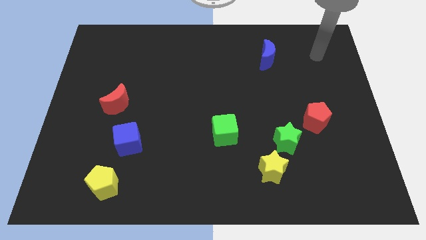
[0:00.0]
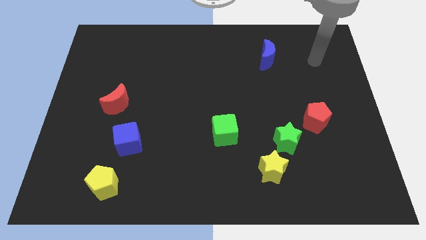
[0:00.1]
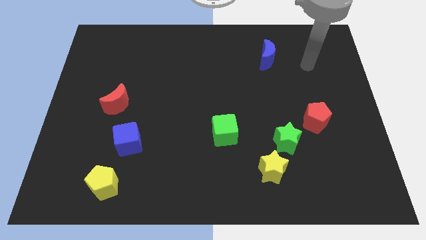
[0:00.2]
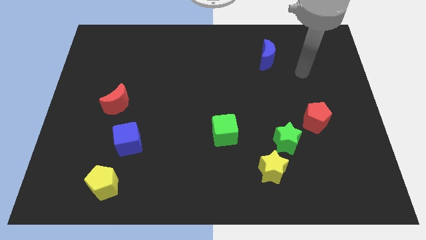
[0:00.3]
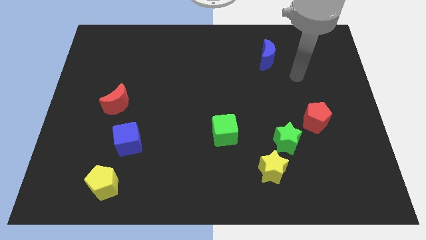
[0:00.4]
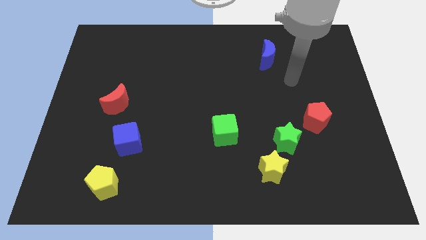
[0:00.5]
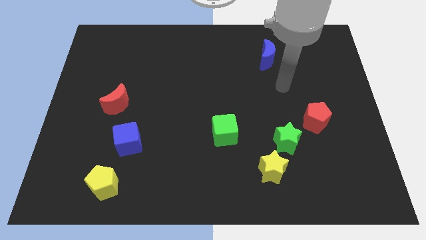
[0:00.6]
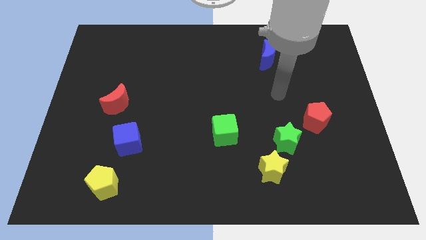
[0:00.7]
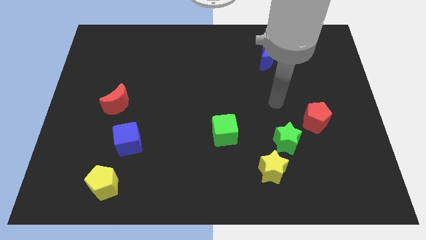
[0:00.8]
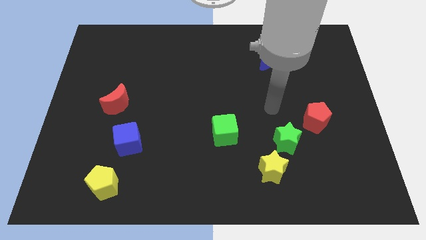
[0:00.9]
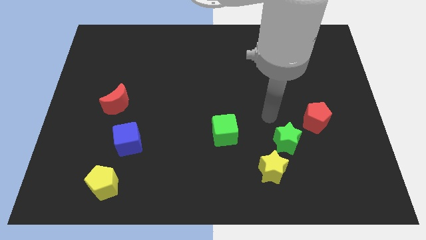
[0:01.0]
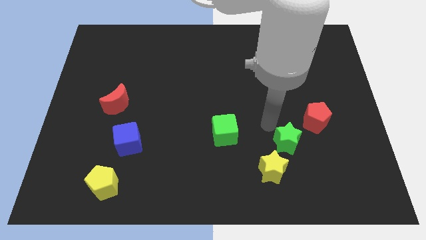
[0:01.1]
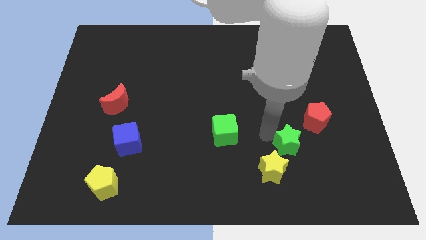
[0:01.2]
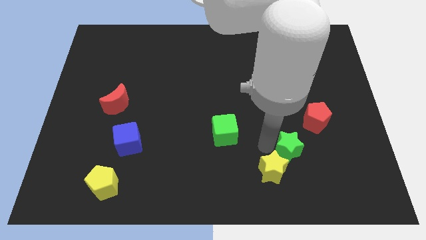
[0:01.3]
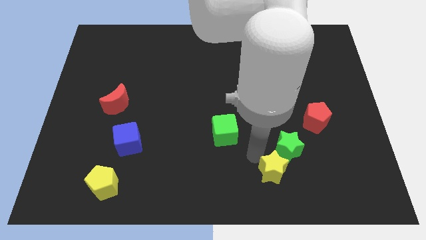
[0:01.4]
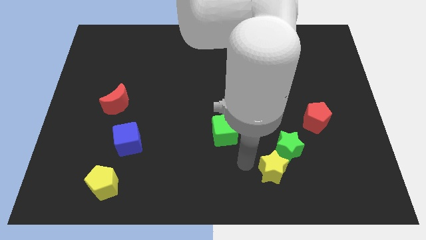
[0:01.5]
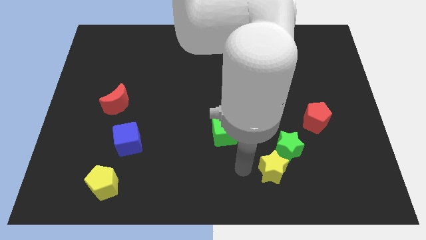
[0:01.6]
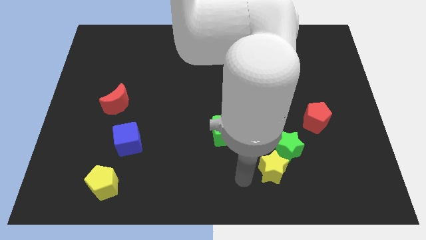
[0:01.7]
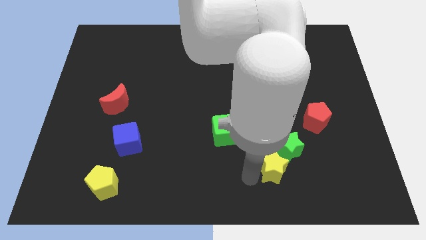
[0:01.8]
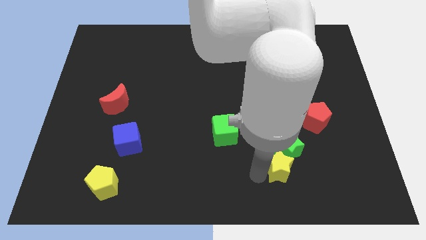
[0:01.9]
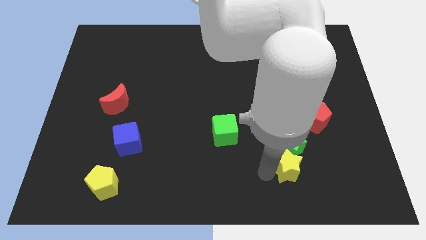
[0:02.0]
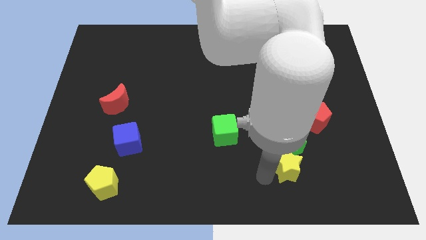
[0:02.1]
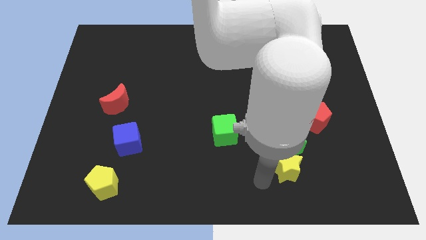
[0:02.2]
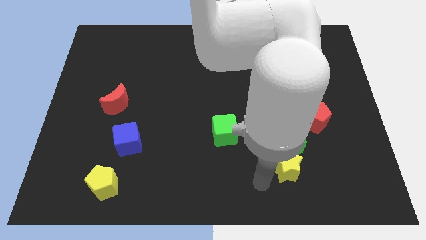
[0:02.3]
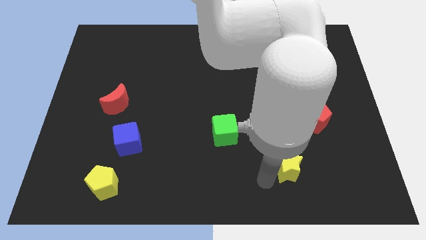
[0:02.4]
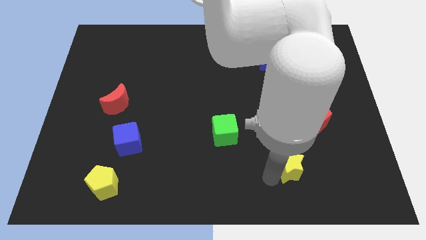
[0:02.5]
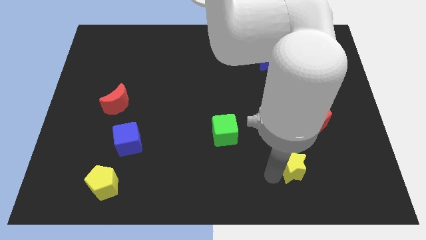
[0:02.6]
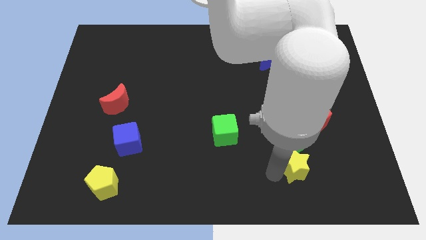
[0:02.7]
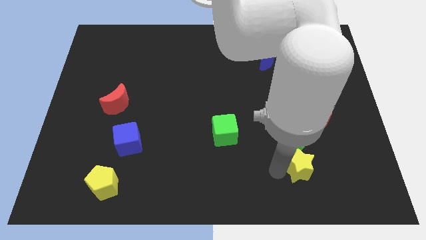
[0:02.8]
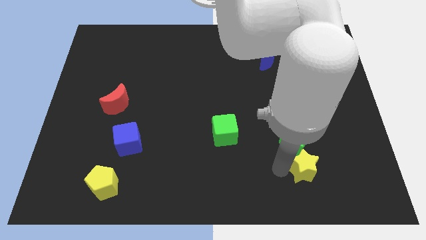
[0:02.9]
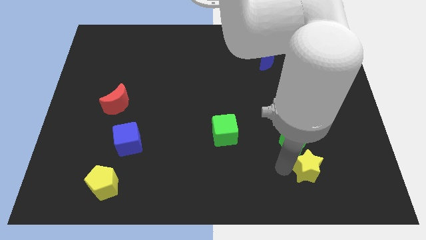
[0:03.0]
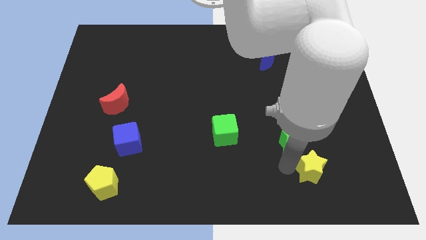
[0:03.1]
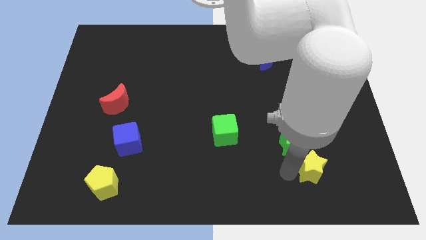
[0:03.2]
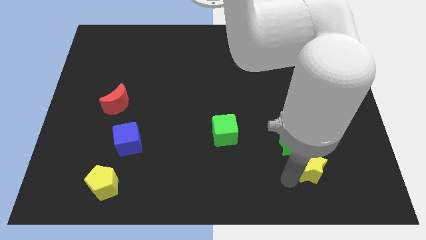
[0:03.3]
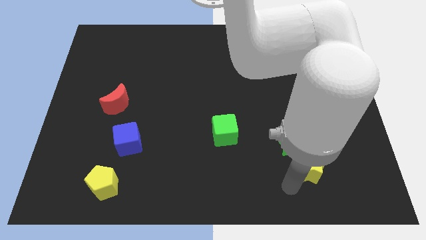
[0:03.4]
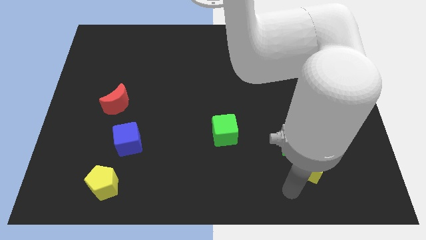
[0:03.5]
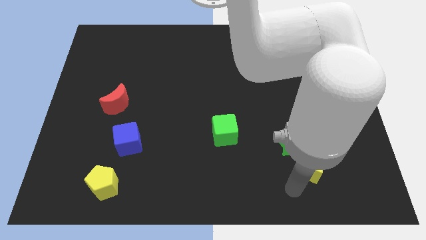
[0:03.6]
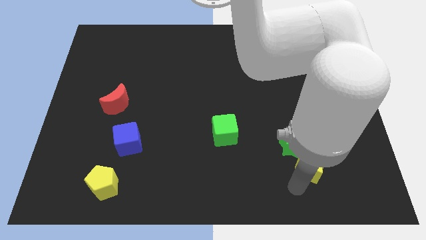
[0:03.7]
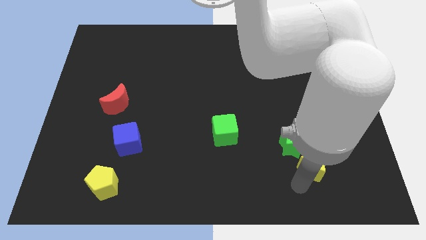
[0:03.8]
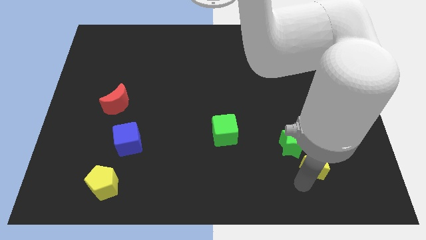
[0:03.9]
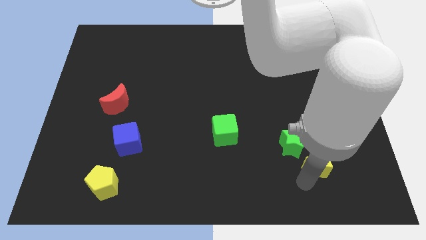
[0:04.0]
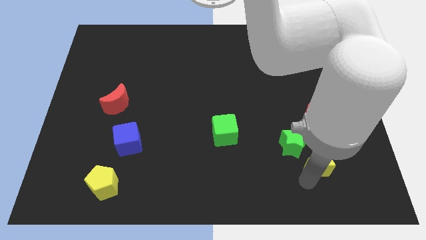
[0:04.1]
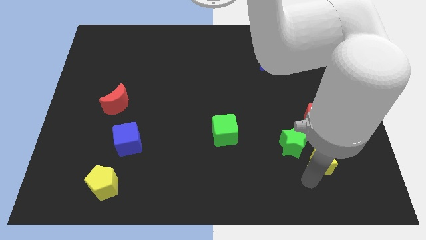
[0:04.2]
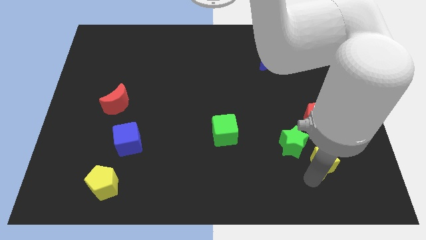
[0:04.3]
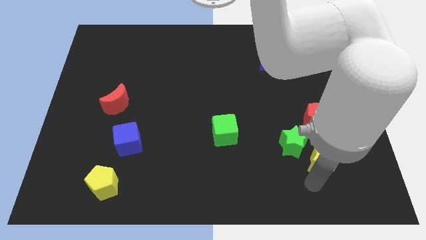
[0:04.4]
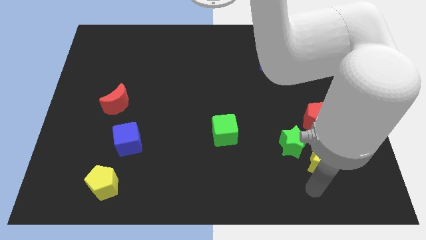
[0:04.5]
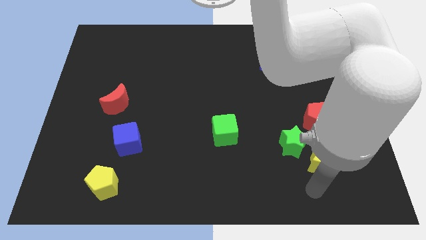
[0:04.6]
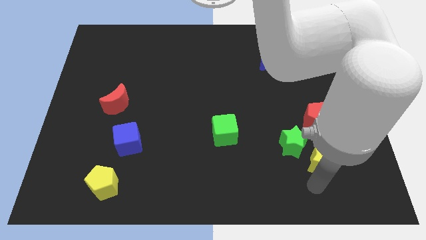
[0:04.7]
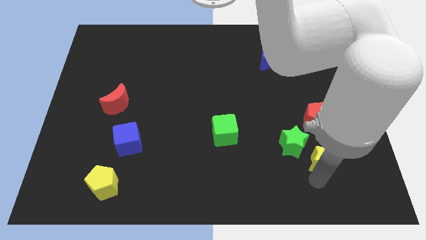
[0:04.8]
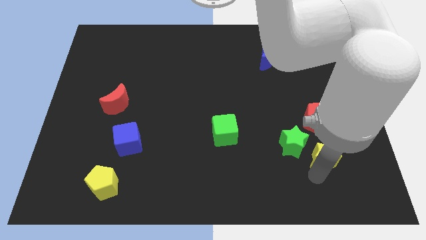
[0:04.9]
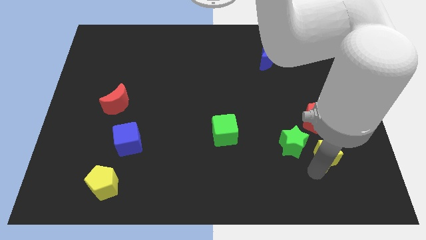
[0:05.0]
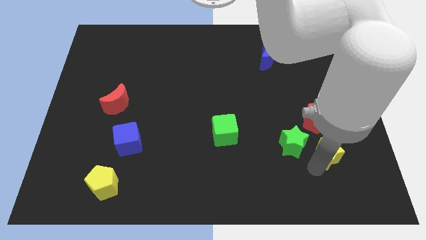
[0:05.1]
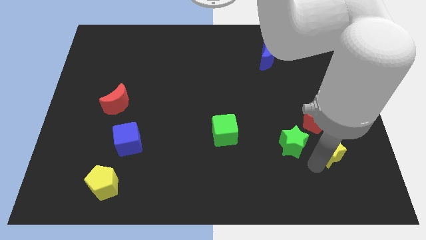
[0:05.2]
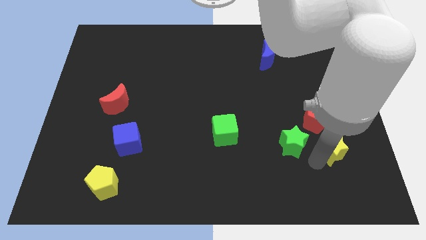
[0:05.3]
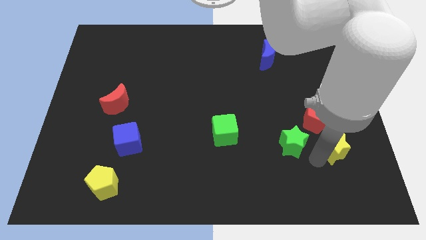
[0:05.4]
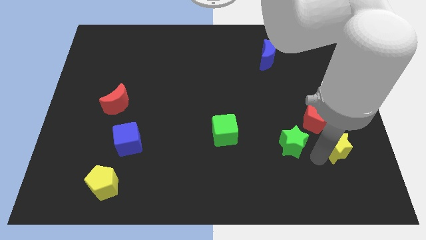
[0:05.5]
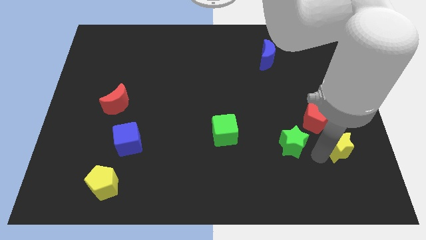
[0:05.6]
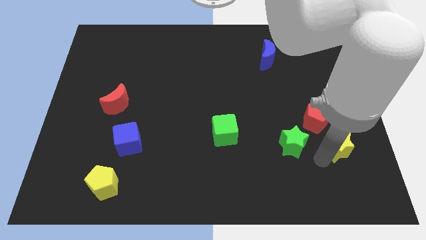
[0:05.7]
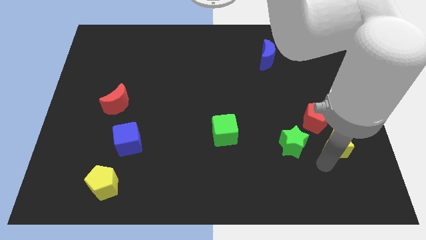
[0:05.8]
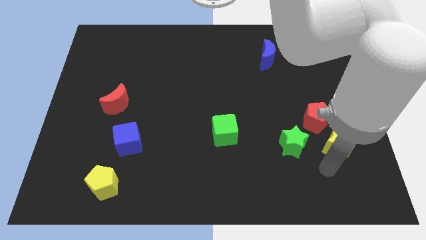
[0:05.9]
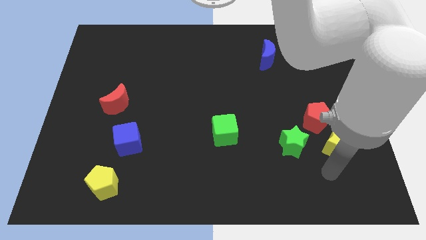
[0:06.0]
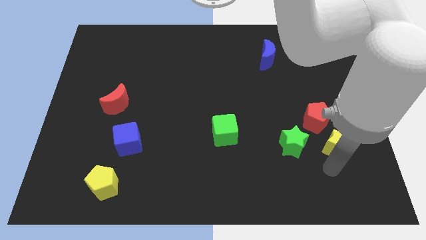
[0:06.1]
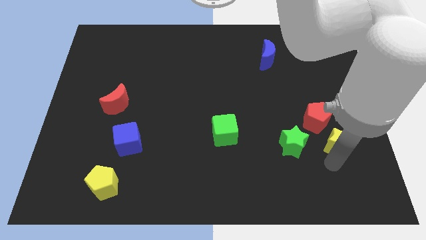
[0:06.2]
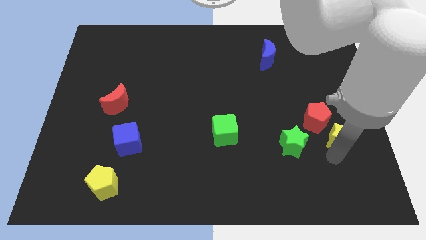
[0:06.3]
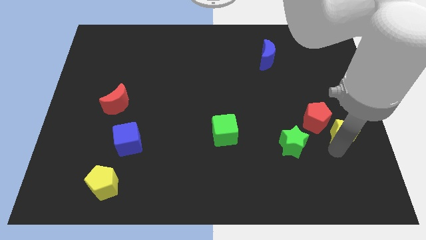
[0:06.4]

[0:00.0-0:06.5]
put the yellow star to the center right

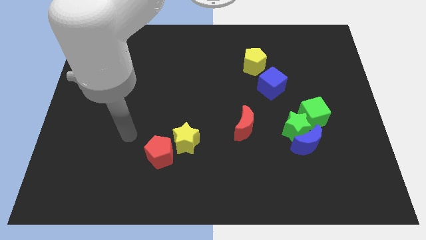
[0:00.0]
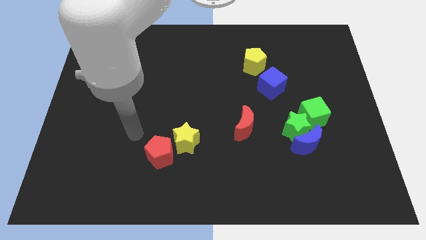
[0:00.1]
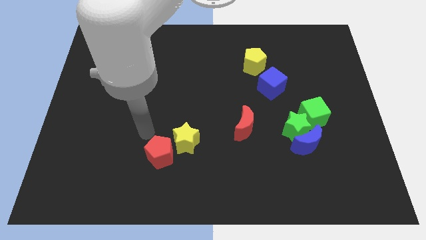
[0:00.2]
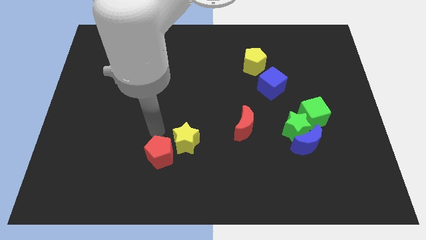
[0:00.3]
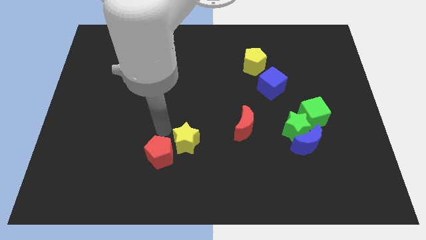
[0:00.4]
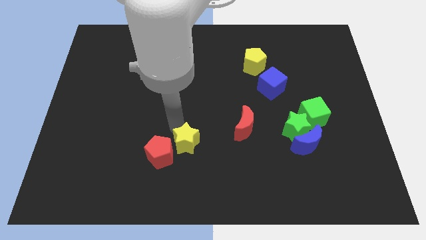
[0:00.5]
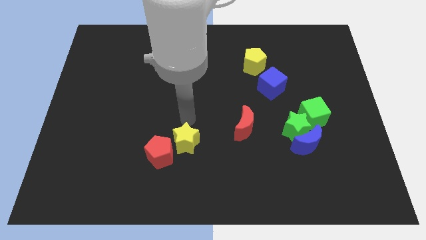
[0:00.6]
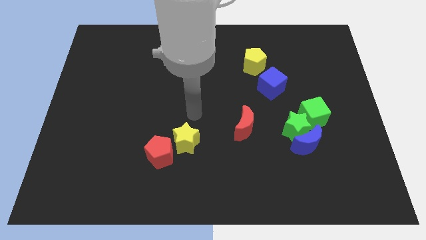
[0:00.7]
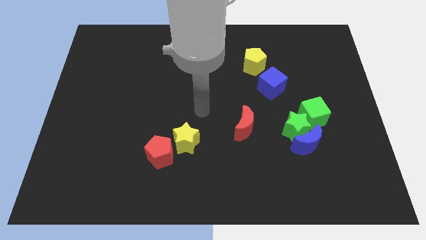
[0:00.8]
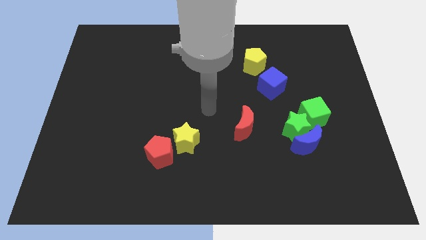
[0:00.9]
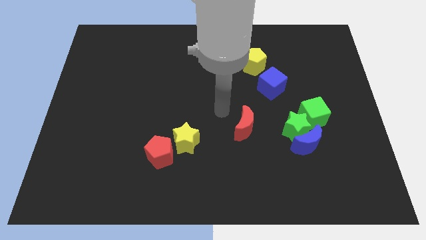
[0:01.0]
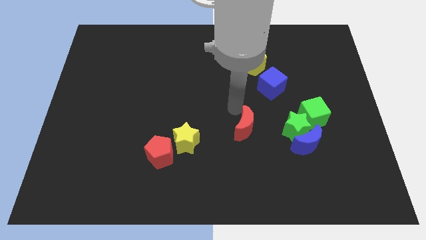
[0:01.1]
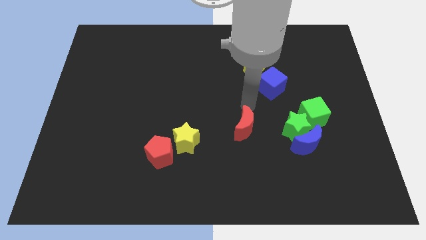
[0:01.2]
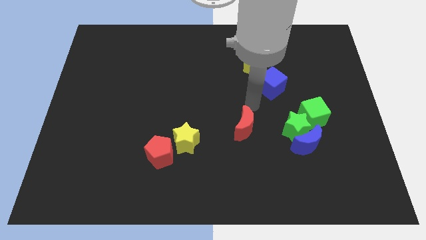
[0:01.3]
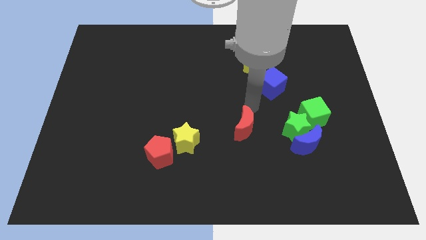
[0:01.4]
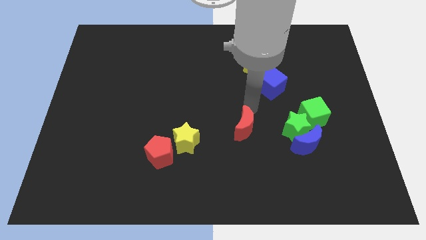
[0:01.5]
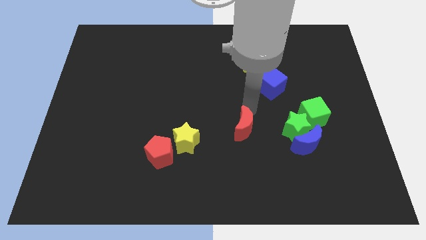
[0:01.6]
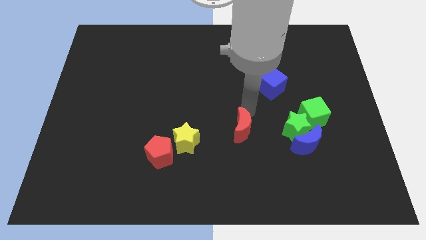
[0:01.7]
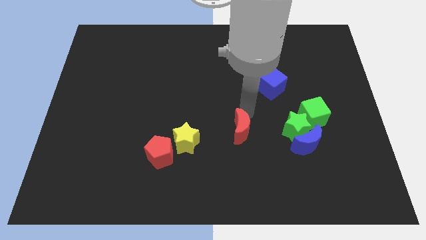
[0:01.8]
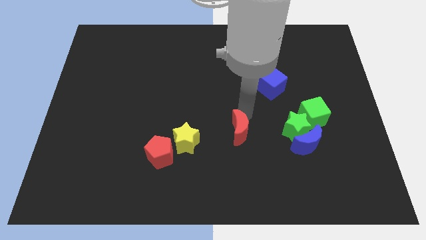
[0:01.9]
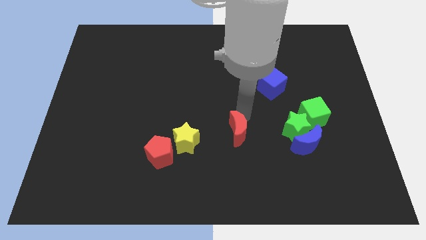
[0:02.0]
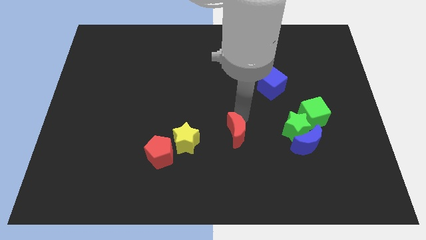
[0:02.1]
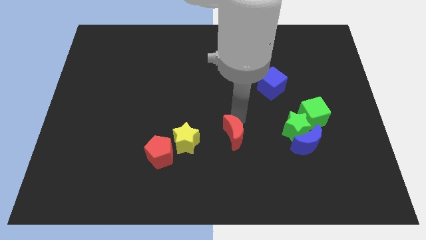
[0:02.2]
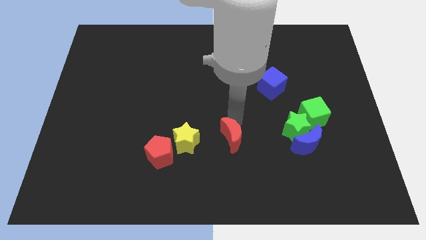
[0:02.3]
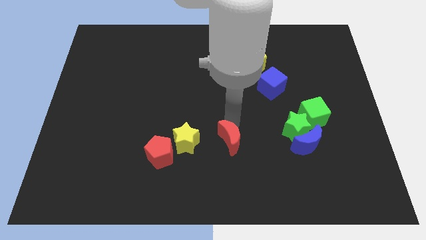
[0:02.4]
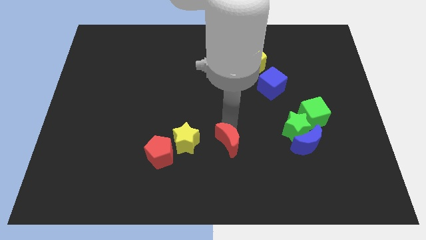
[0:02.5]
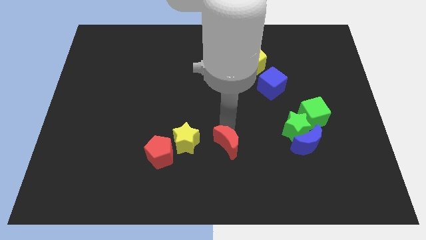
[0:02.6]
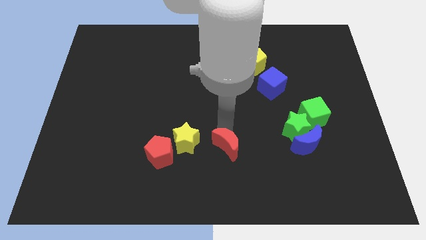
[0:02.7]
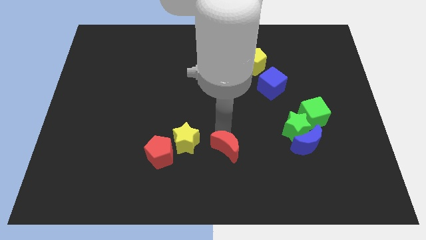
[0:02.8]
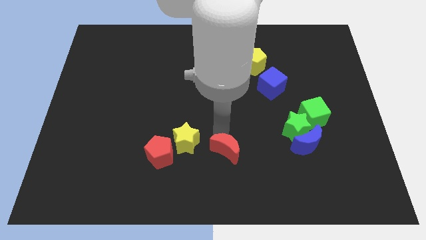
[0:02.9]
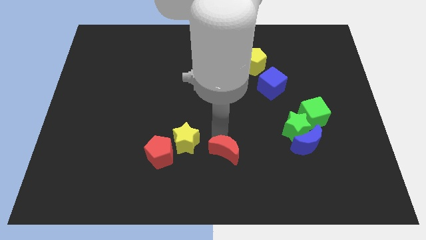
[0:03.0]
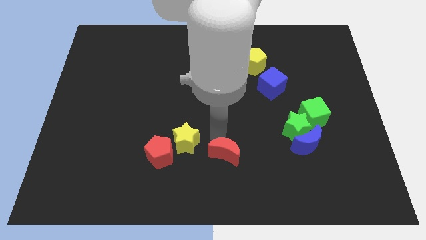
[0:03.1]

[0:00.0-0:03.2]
move the red moon to the bottom
